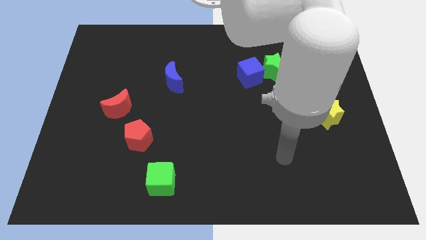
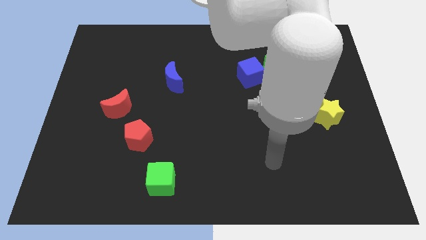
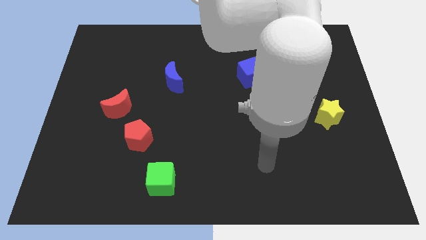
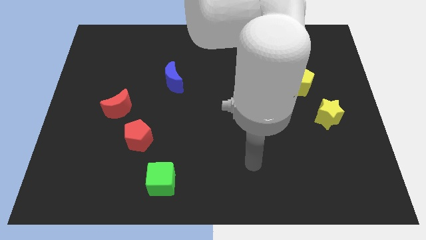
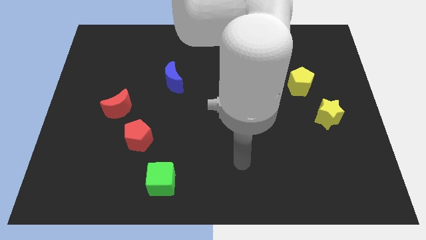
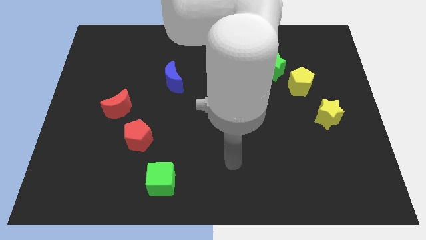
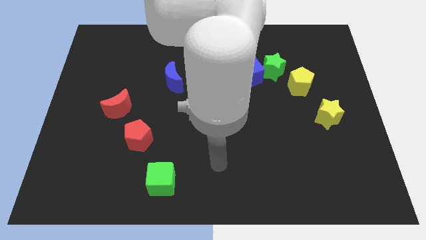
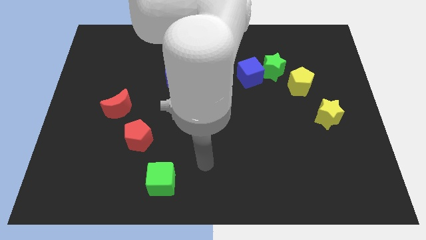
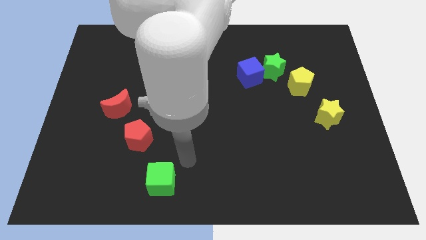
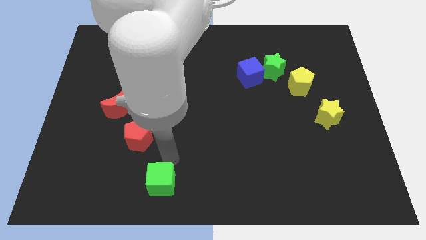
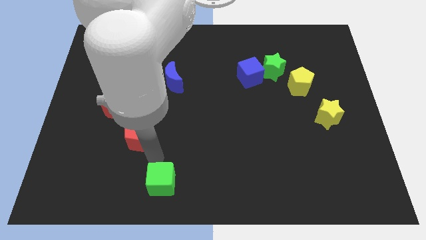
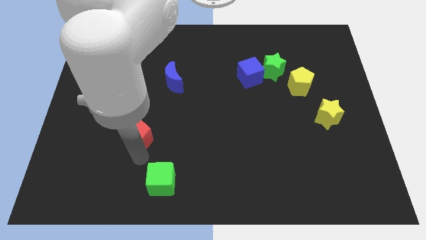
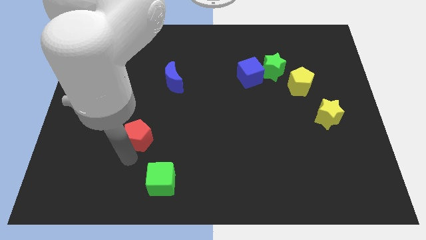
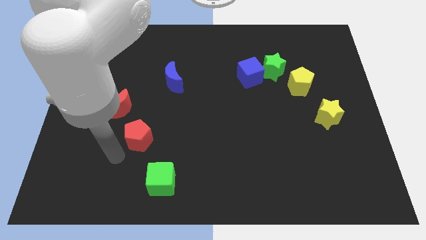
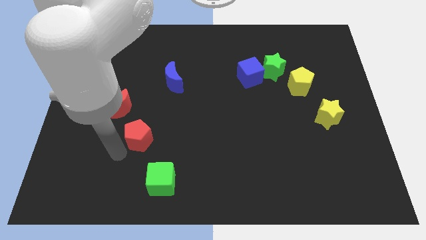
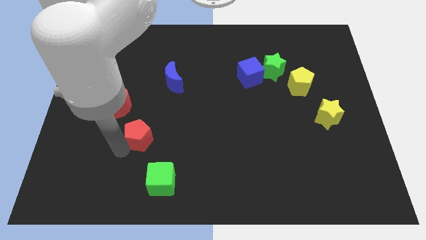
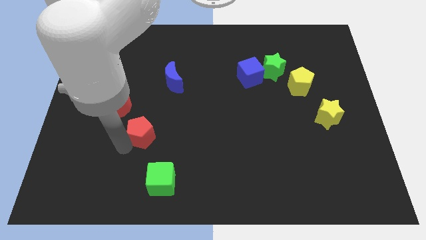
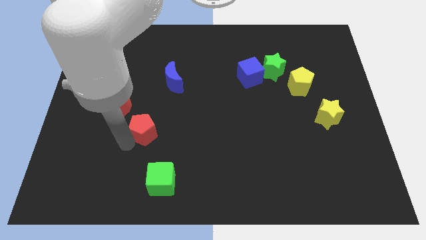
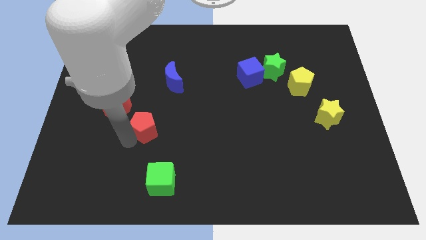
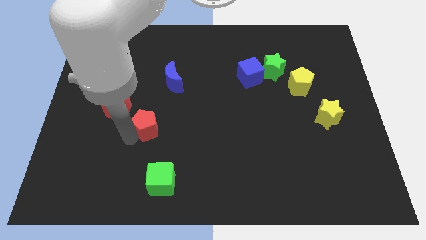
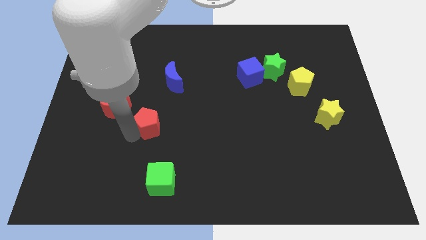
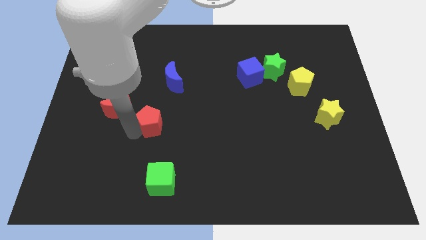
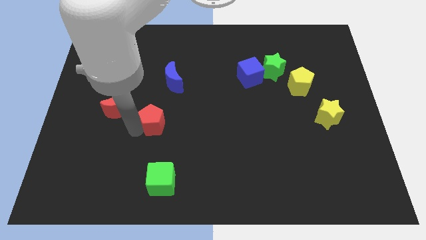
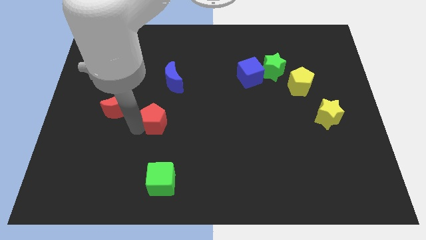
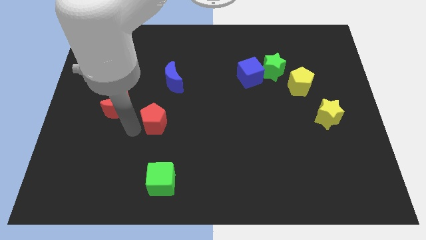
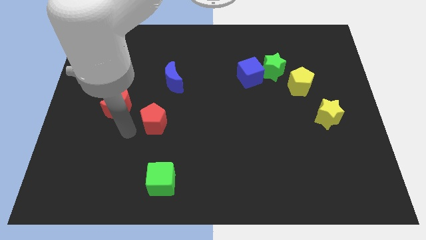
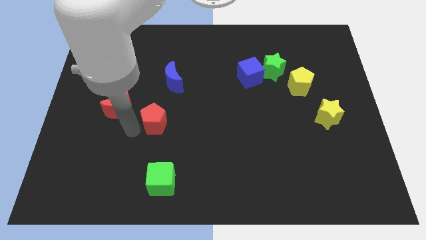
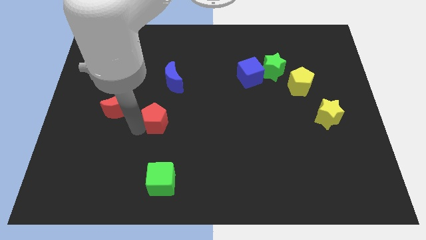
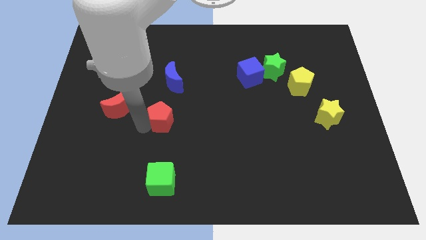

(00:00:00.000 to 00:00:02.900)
slightly move the red pentagon upwards and to the right diagonally

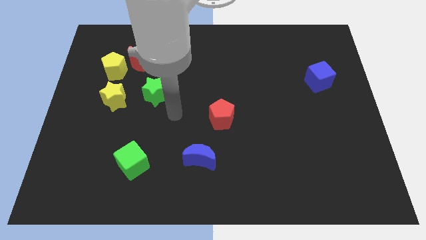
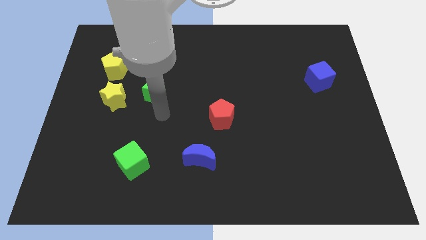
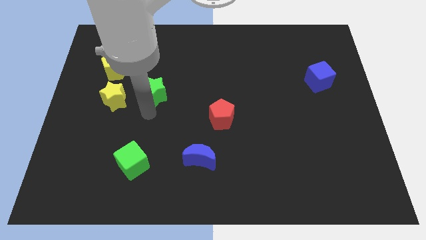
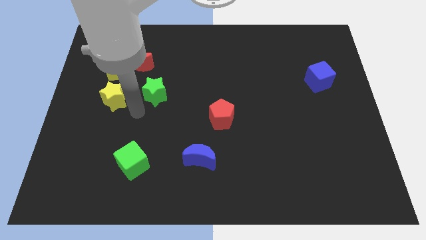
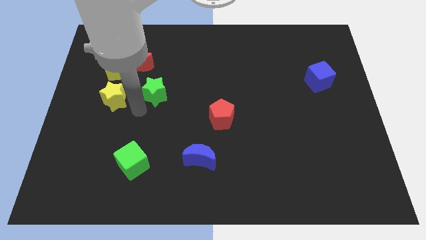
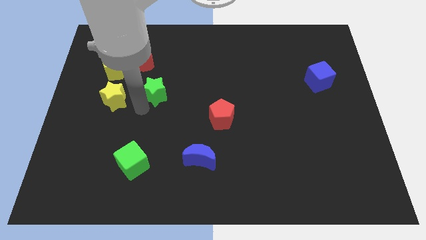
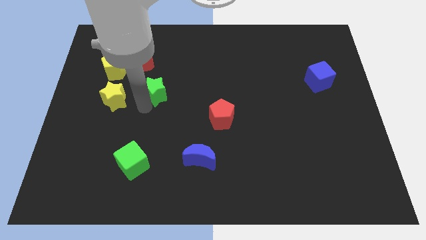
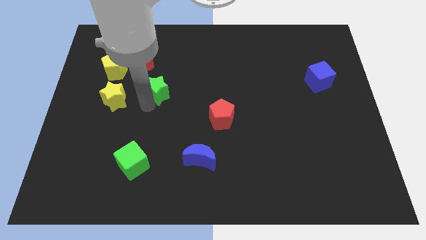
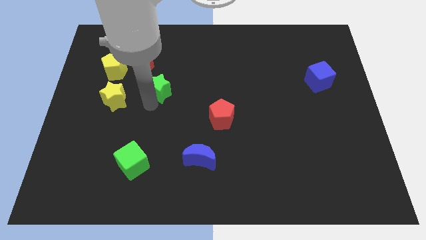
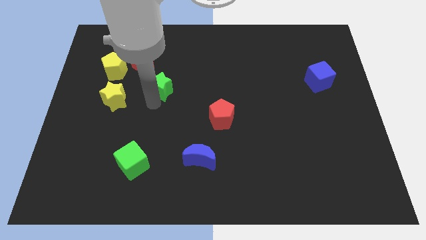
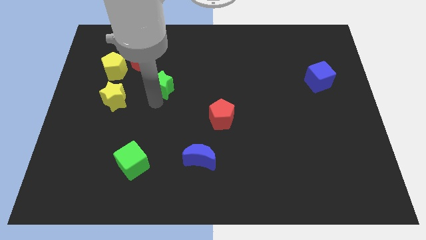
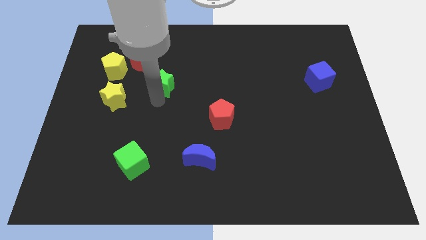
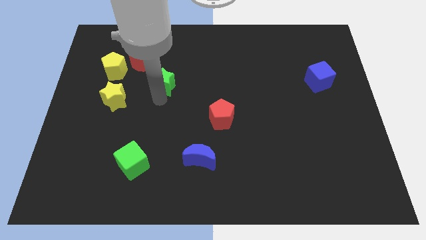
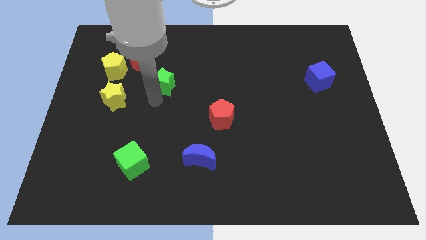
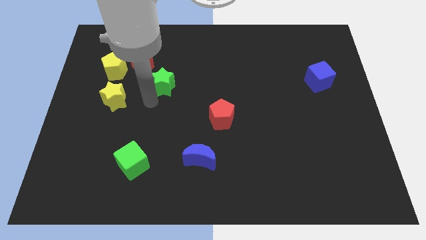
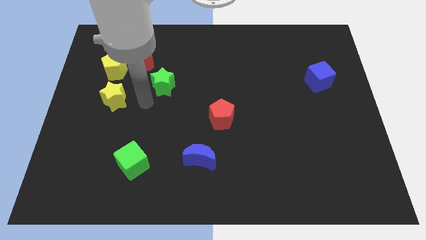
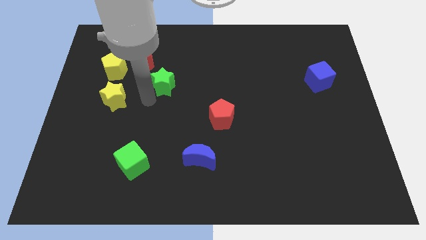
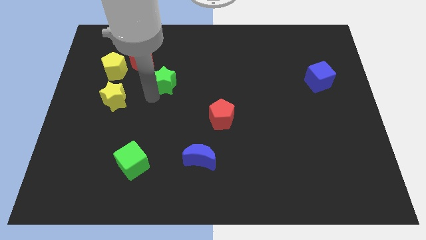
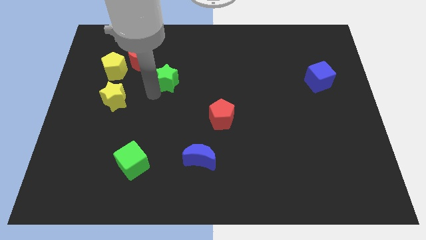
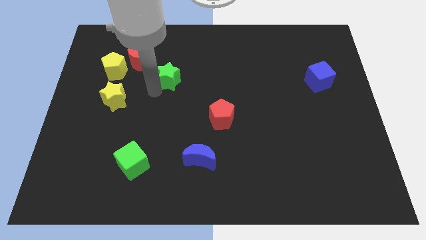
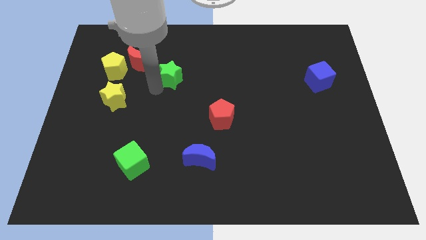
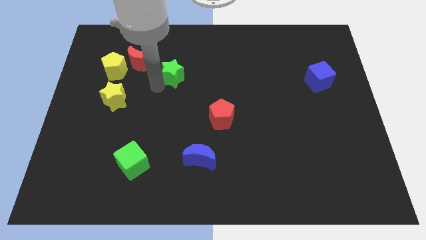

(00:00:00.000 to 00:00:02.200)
move the green star diagonally upwards and to the right somewhat

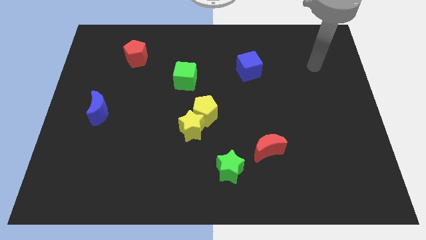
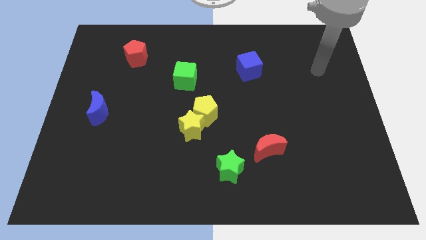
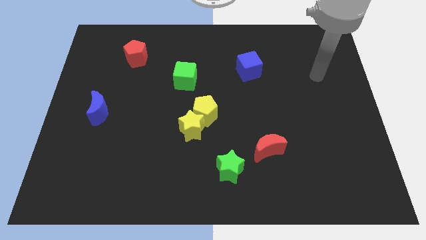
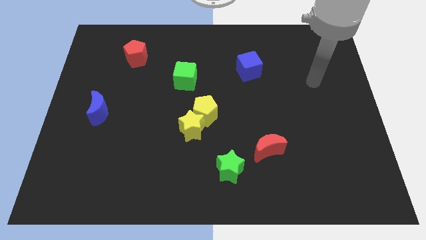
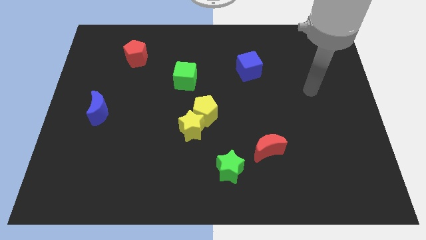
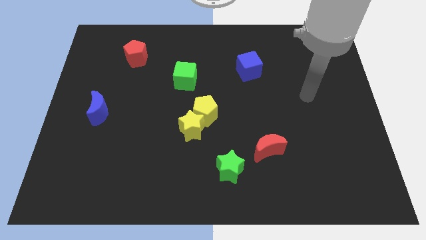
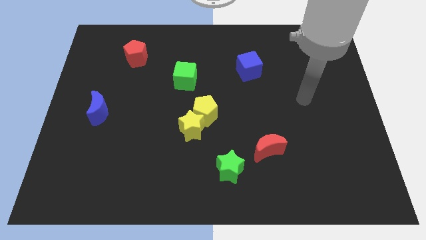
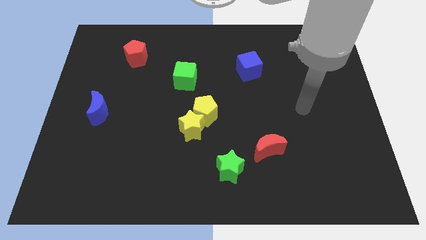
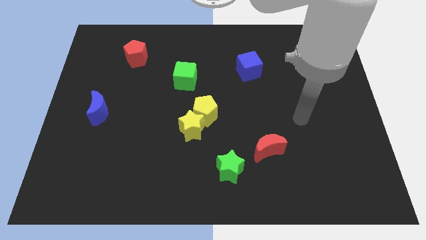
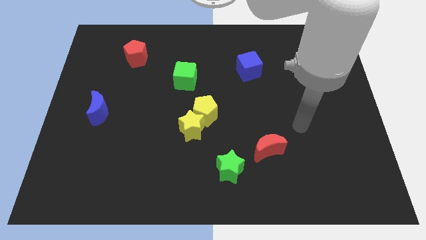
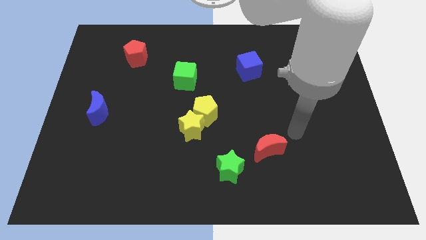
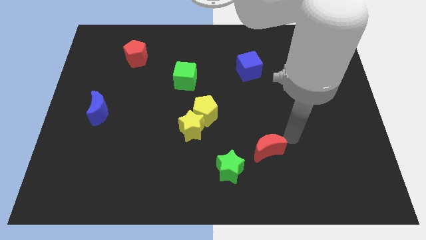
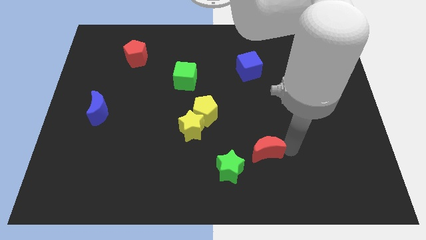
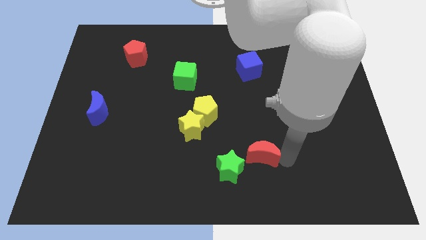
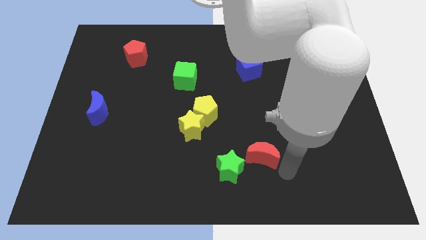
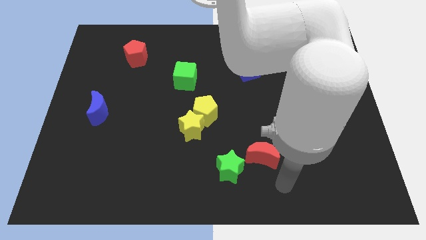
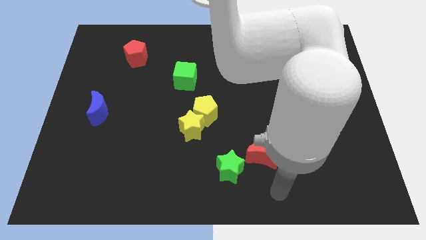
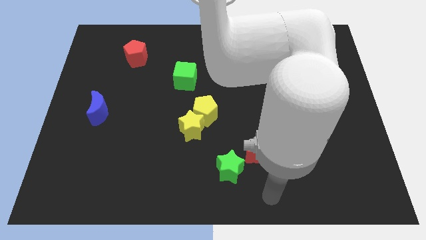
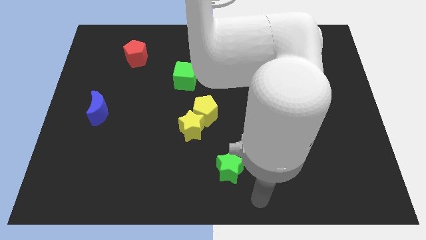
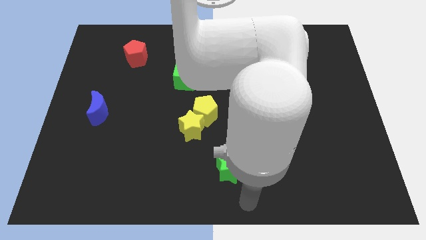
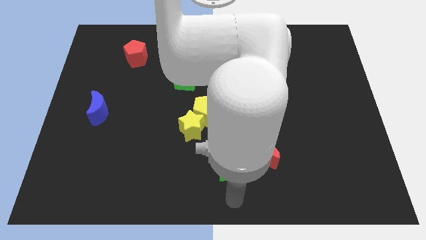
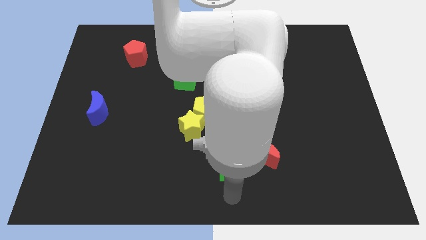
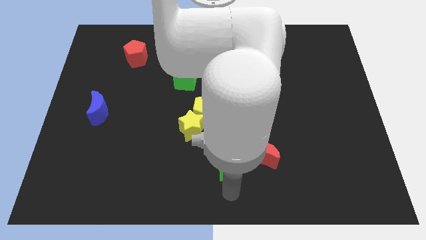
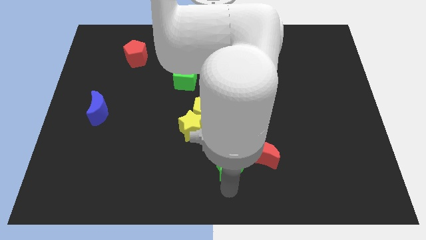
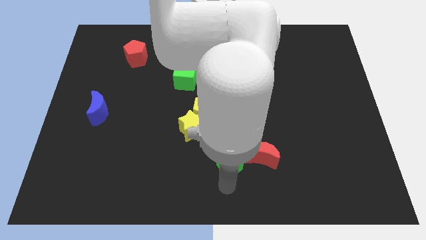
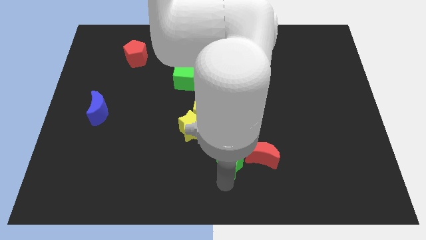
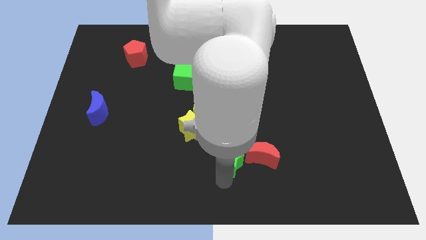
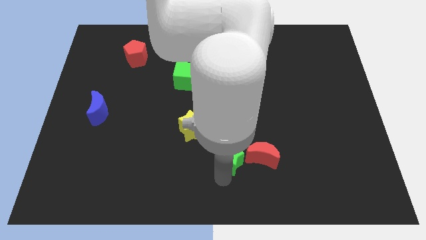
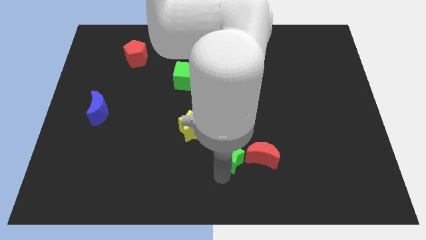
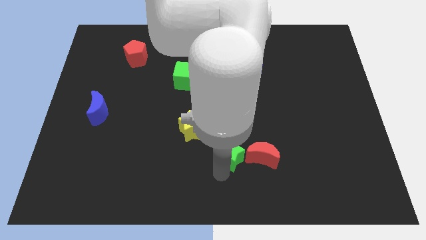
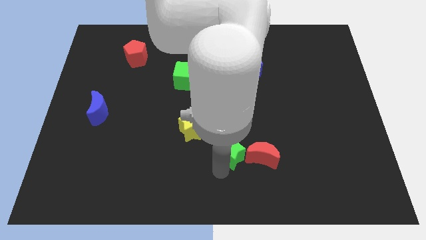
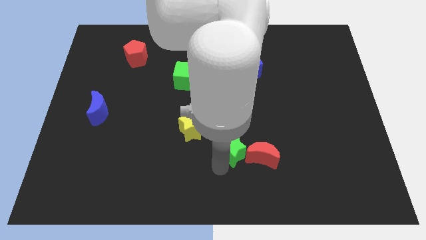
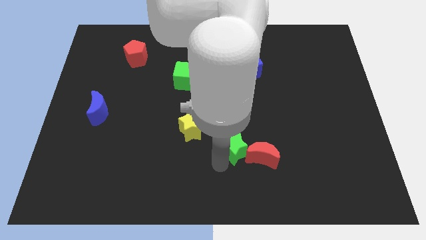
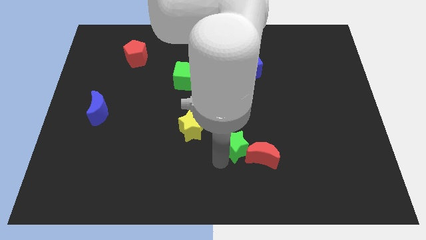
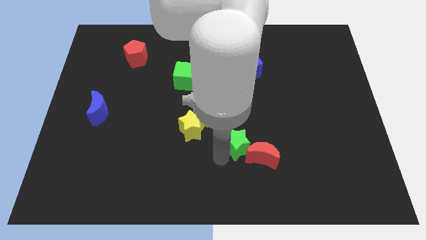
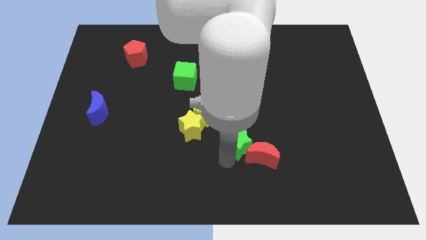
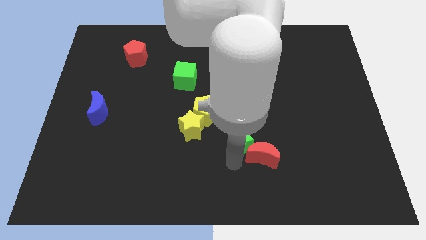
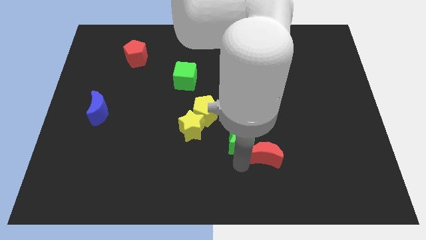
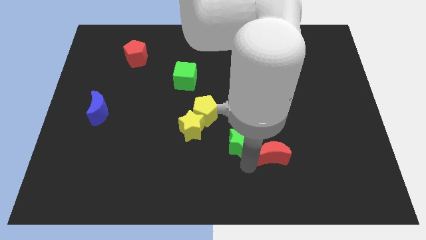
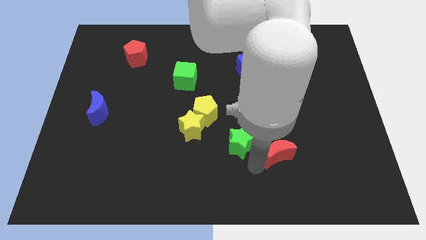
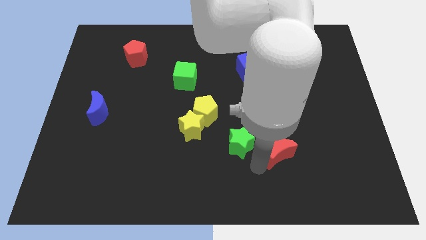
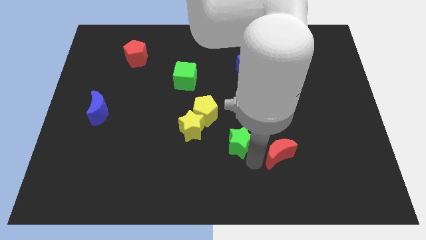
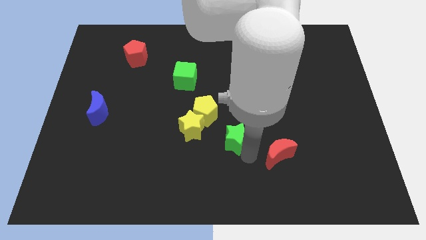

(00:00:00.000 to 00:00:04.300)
slightly push the green star upwards
